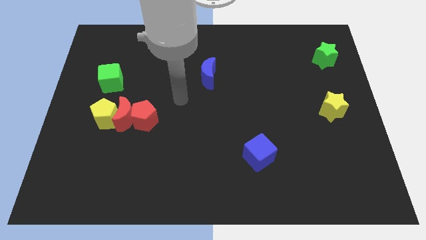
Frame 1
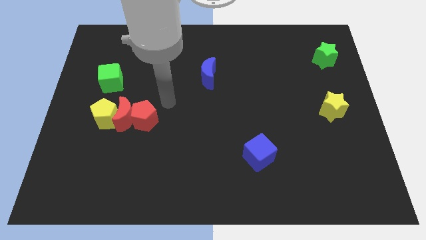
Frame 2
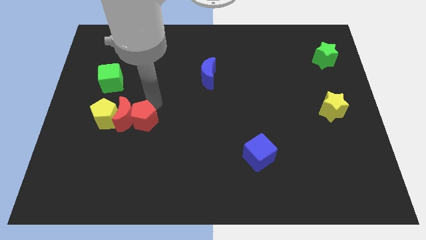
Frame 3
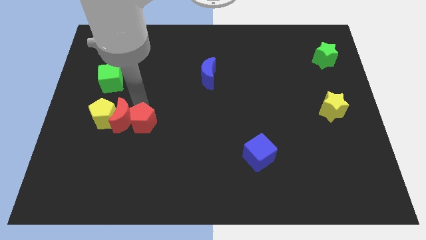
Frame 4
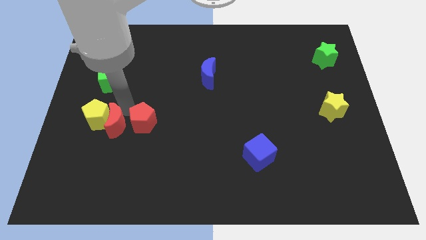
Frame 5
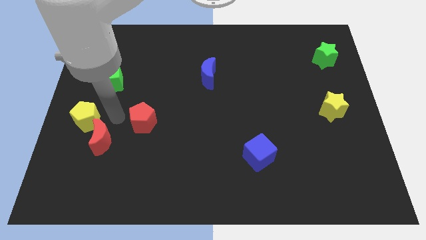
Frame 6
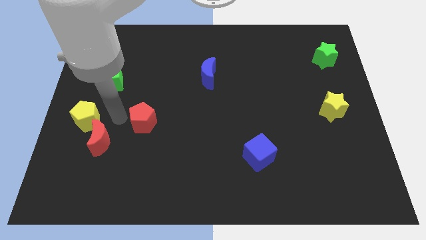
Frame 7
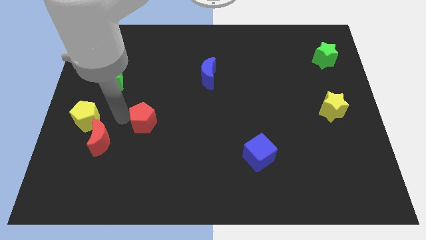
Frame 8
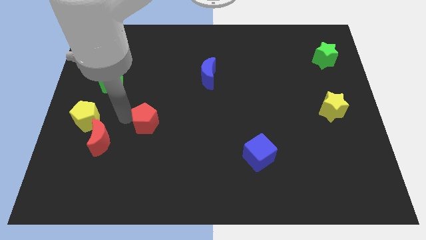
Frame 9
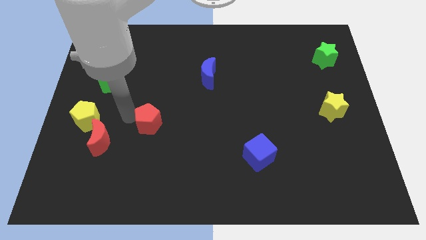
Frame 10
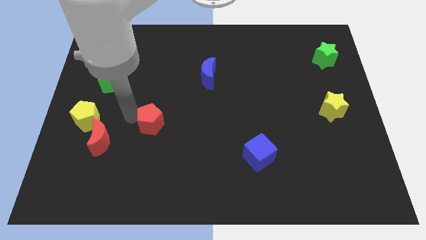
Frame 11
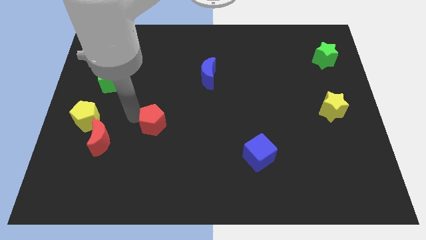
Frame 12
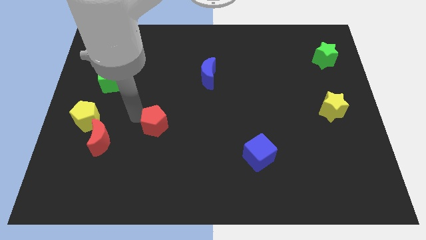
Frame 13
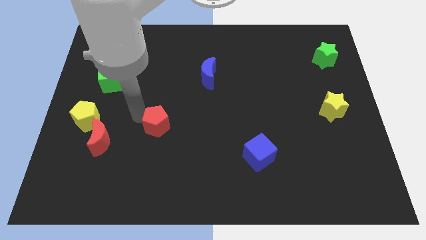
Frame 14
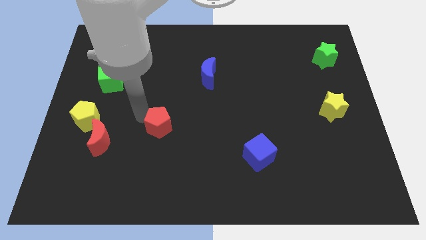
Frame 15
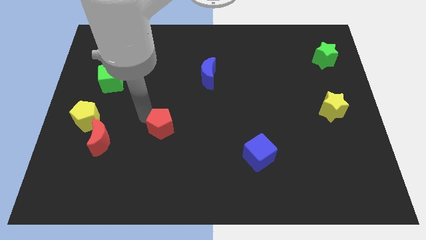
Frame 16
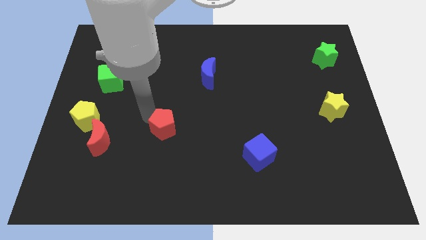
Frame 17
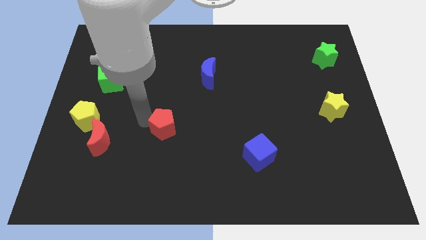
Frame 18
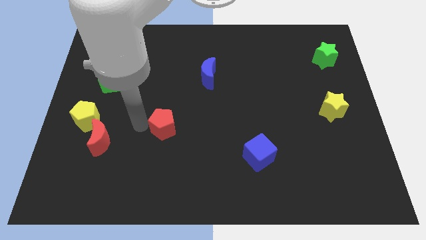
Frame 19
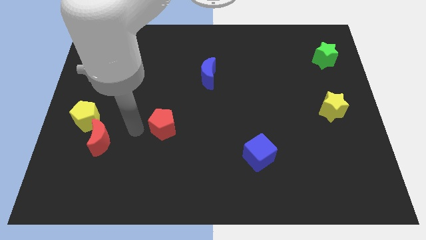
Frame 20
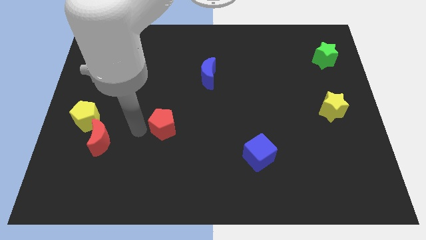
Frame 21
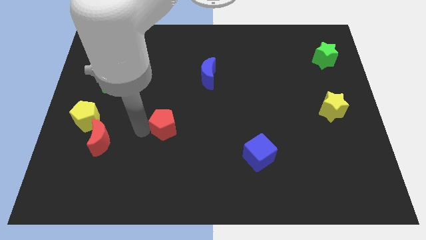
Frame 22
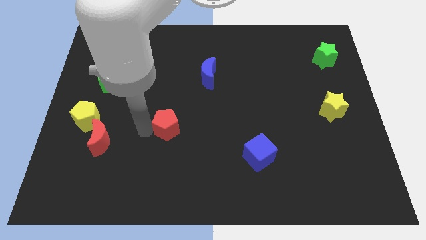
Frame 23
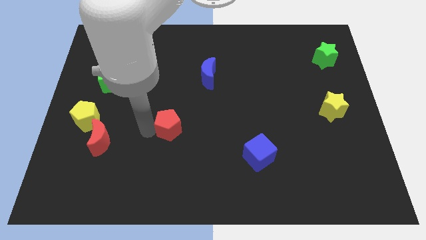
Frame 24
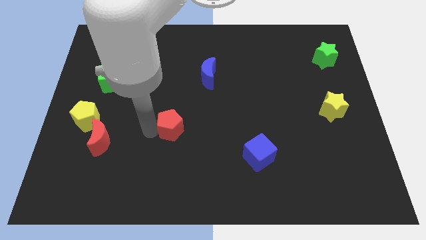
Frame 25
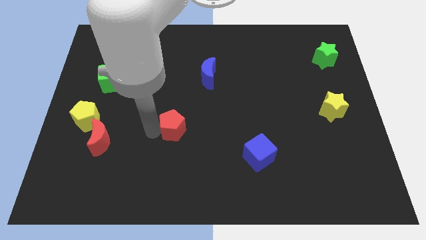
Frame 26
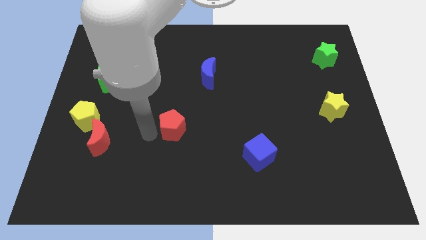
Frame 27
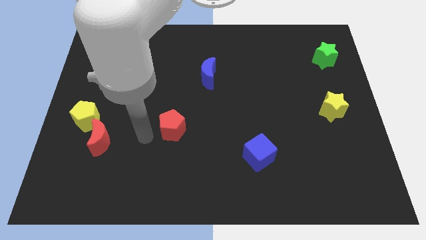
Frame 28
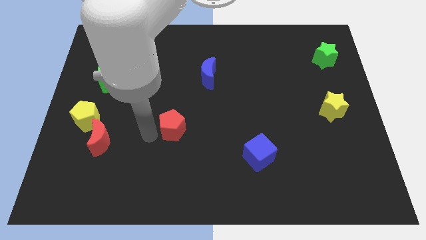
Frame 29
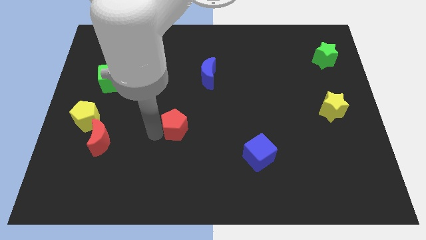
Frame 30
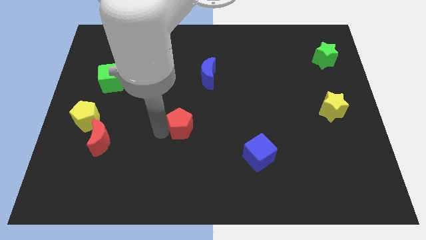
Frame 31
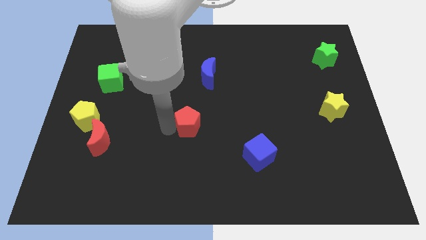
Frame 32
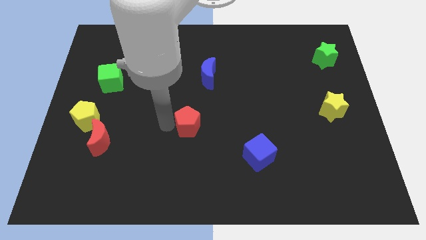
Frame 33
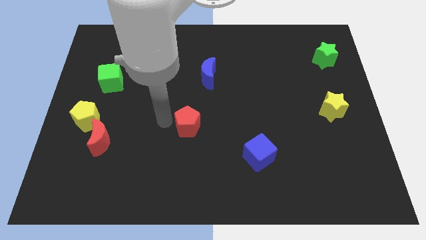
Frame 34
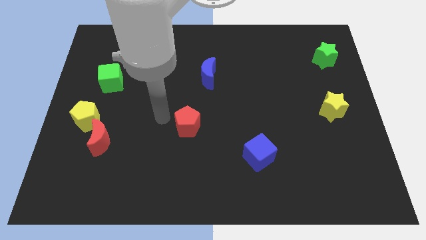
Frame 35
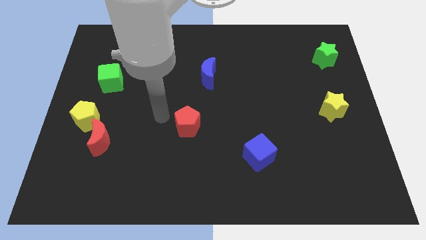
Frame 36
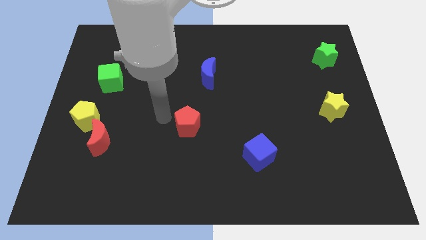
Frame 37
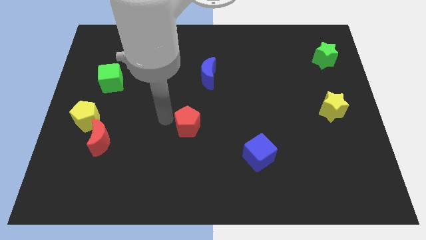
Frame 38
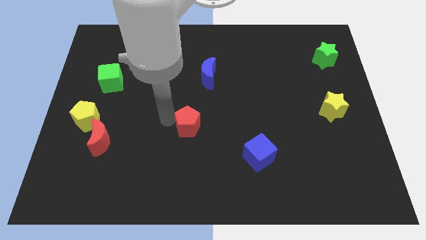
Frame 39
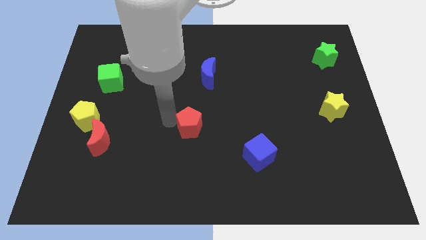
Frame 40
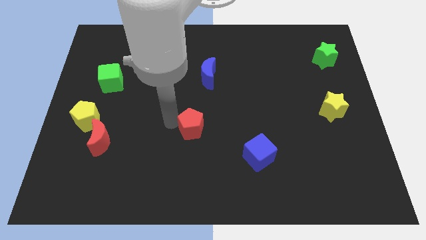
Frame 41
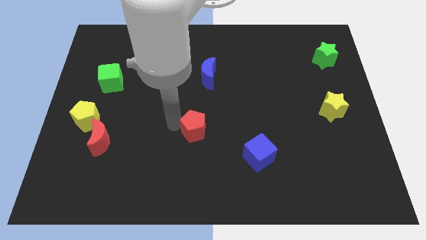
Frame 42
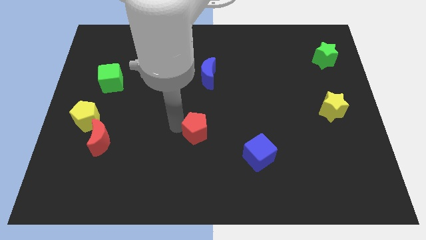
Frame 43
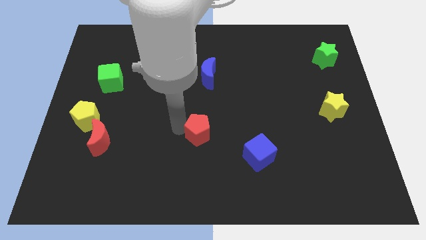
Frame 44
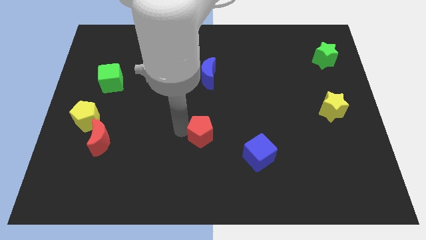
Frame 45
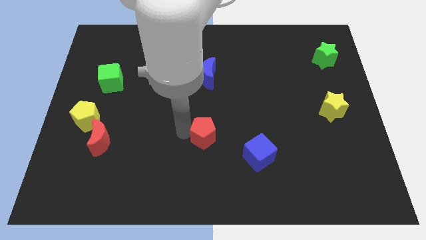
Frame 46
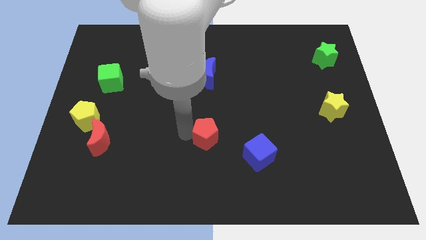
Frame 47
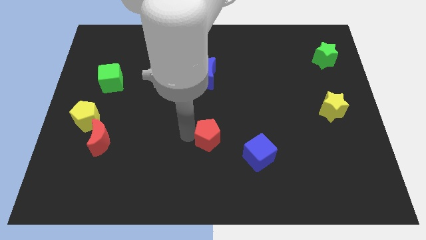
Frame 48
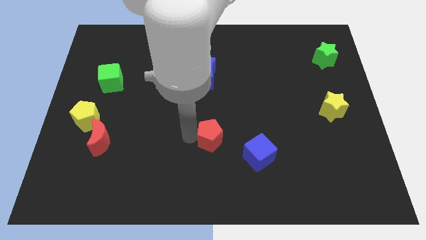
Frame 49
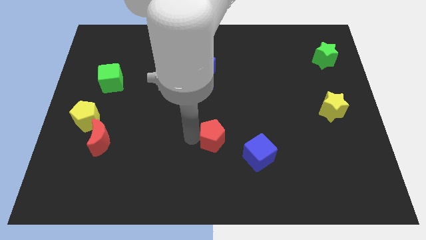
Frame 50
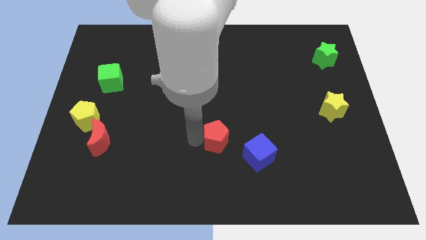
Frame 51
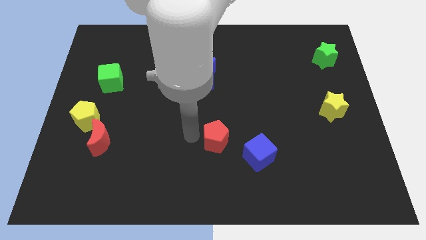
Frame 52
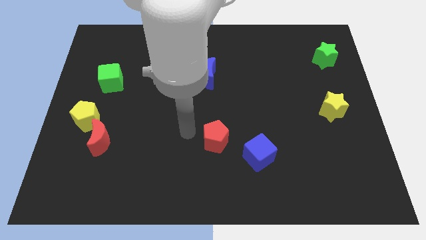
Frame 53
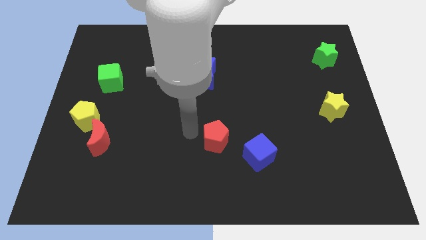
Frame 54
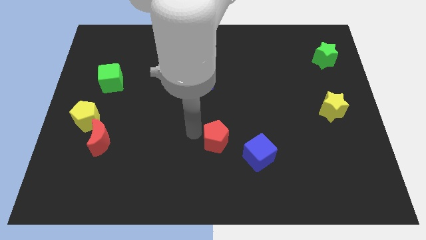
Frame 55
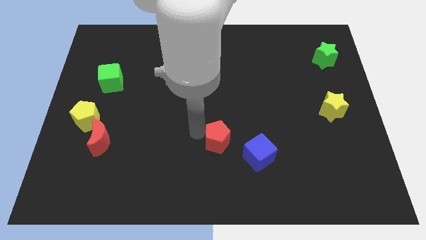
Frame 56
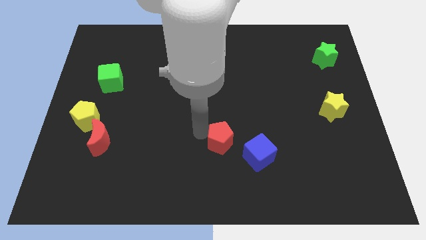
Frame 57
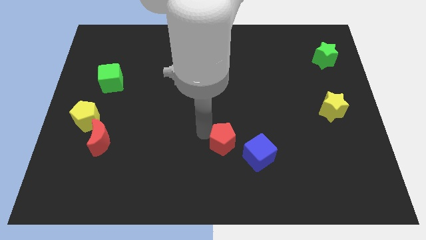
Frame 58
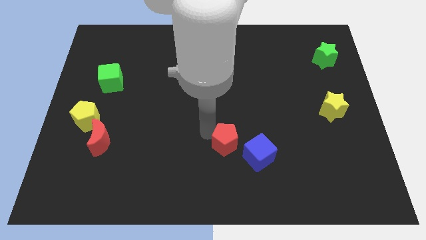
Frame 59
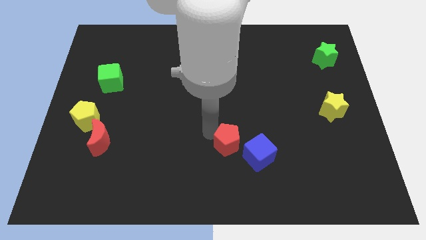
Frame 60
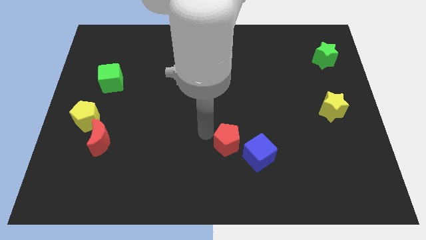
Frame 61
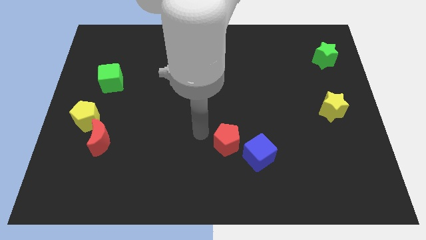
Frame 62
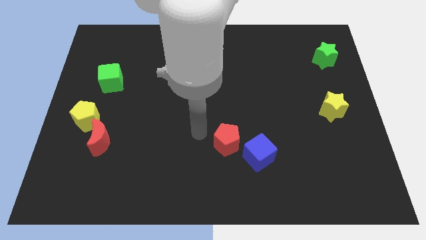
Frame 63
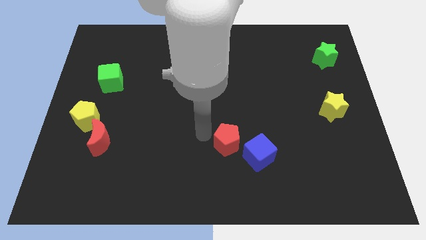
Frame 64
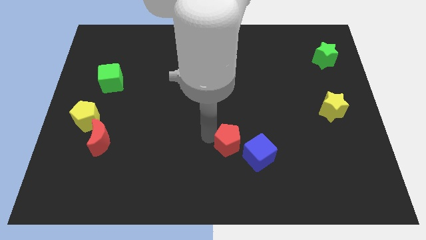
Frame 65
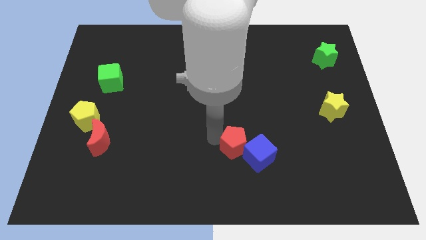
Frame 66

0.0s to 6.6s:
put the red pentagon next to the blue cube

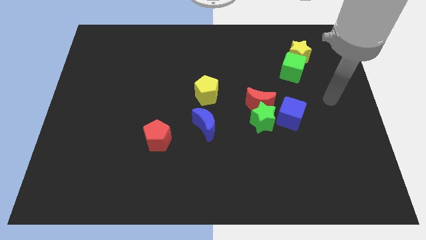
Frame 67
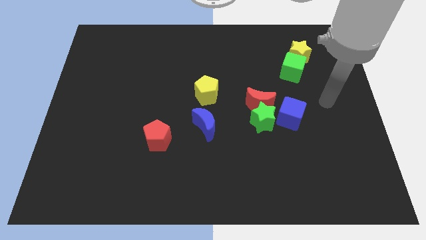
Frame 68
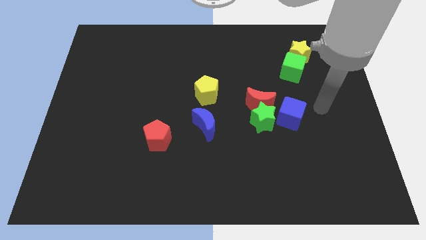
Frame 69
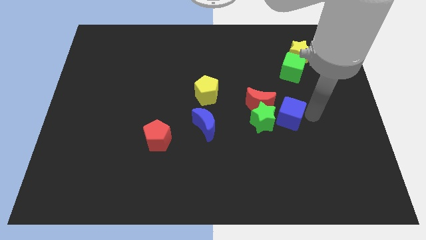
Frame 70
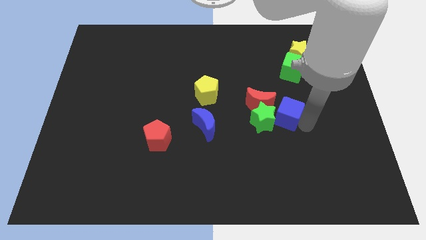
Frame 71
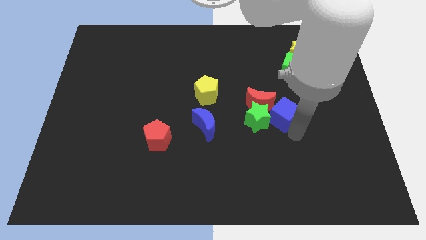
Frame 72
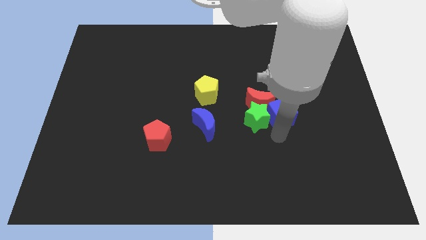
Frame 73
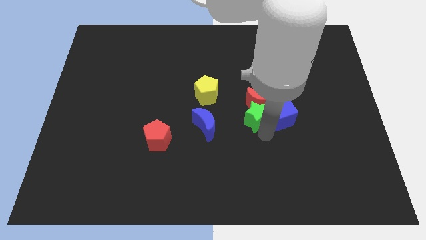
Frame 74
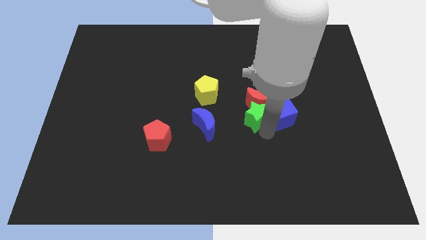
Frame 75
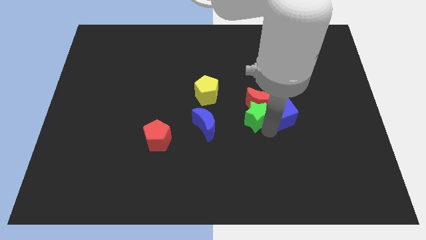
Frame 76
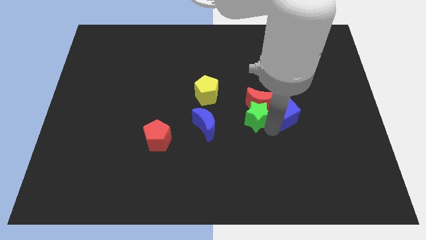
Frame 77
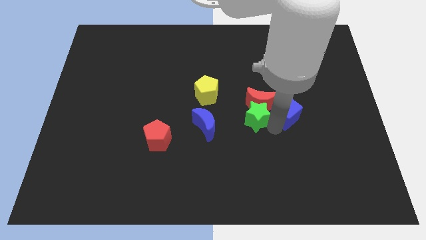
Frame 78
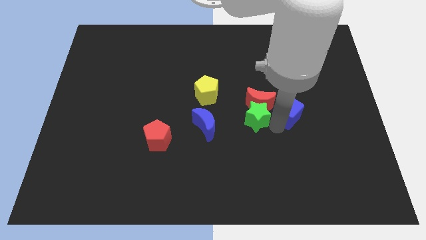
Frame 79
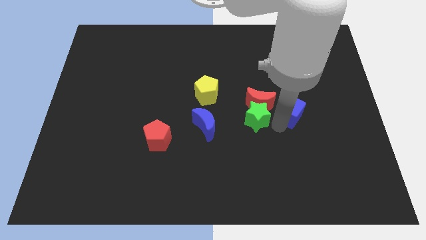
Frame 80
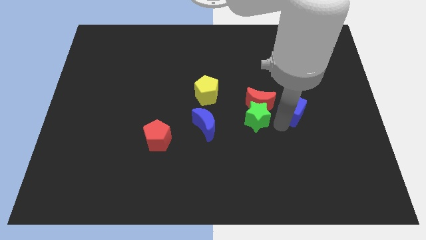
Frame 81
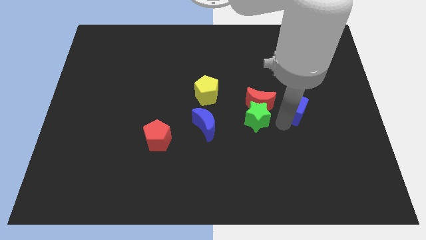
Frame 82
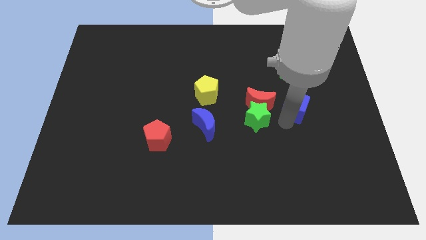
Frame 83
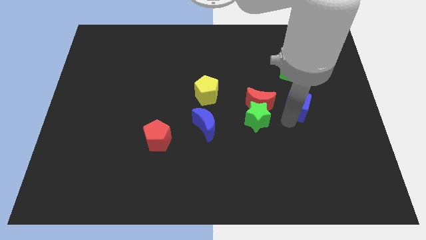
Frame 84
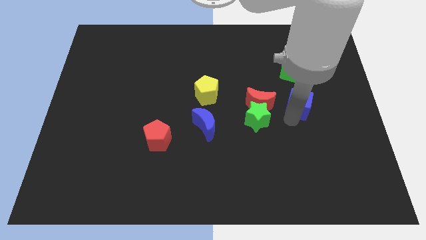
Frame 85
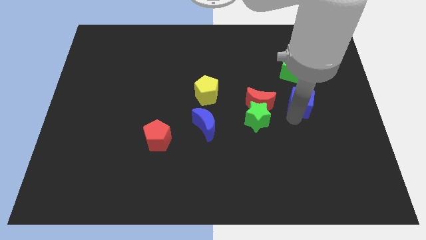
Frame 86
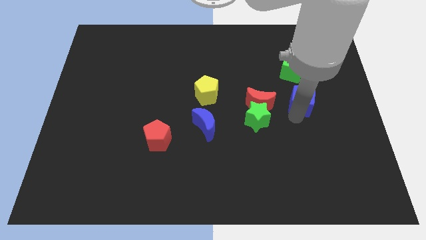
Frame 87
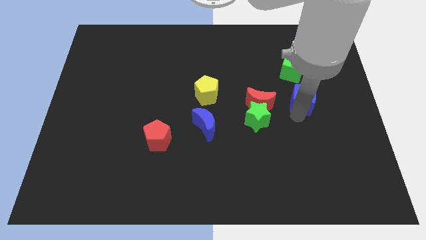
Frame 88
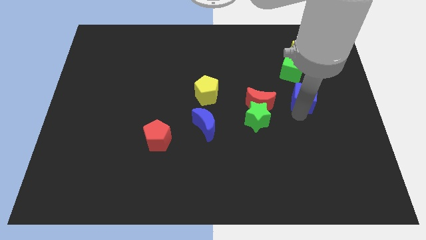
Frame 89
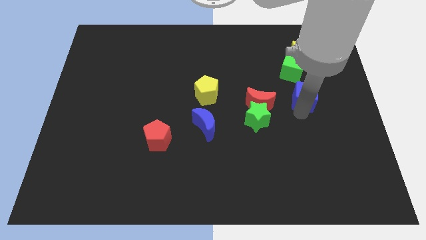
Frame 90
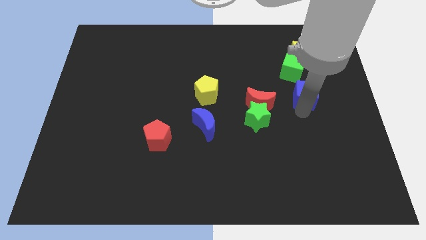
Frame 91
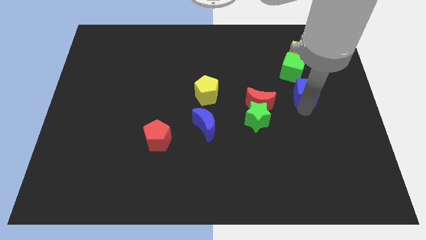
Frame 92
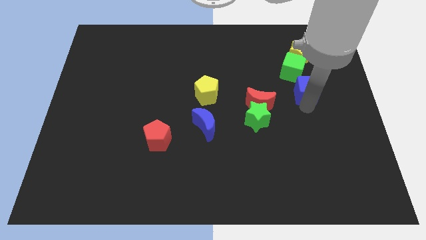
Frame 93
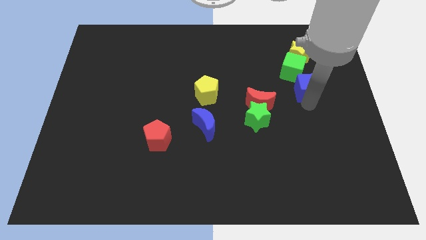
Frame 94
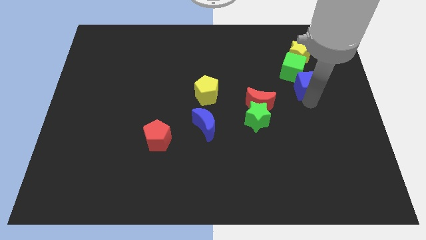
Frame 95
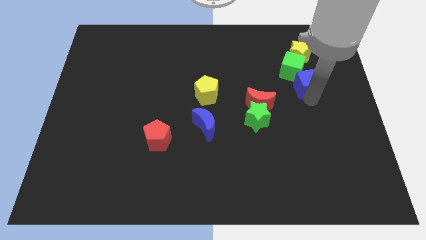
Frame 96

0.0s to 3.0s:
slide the blue cube towards the green cube
